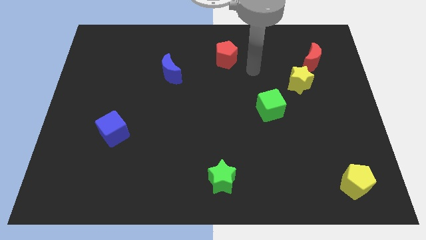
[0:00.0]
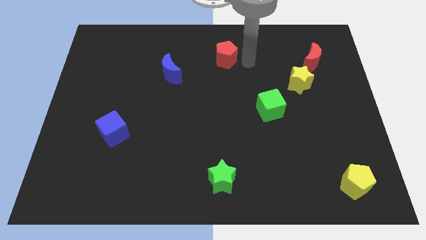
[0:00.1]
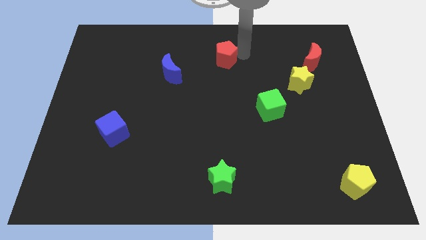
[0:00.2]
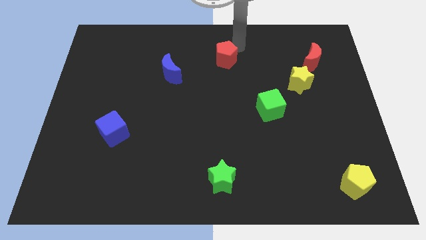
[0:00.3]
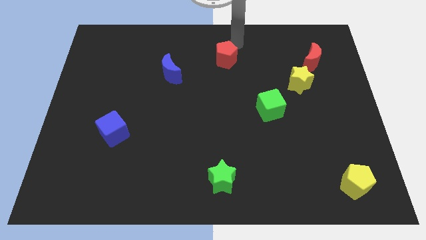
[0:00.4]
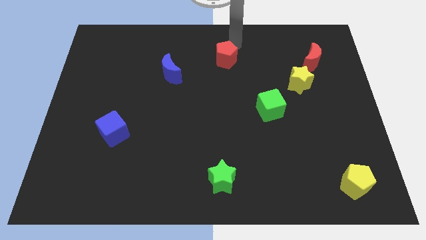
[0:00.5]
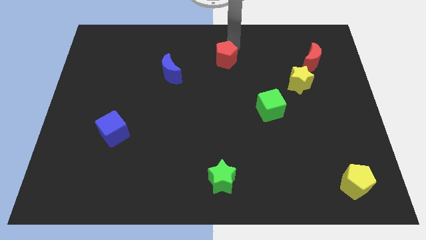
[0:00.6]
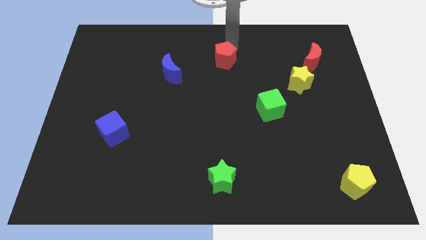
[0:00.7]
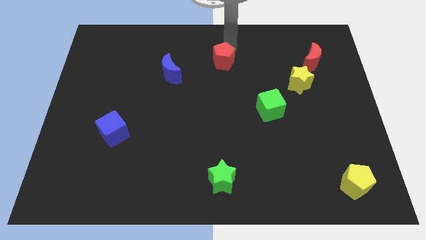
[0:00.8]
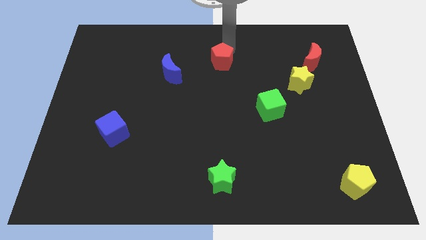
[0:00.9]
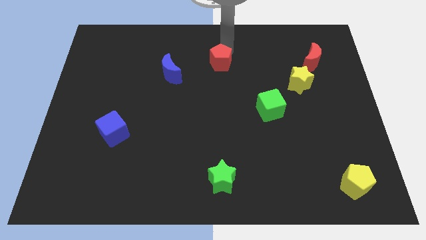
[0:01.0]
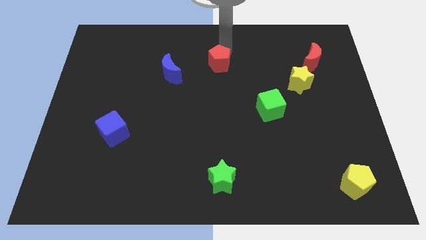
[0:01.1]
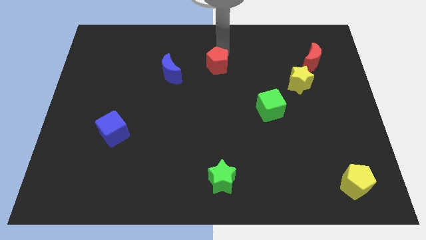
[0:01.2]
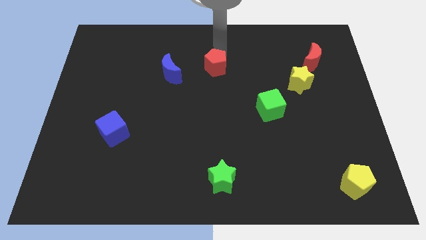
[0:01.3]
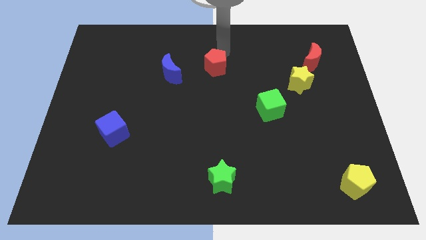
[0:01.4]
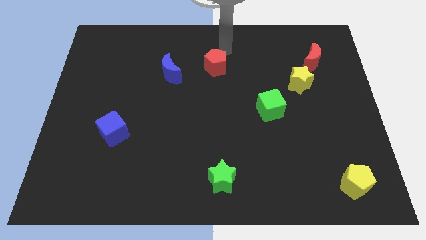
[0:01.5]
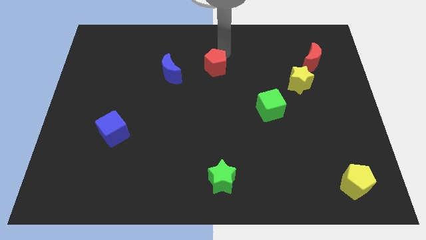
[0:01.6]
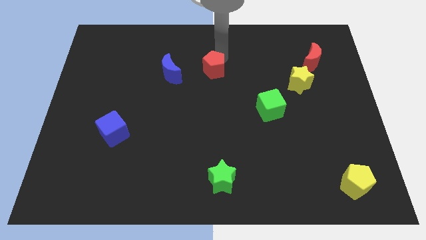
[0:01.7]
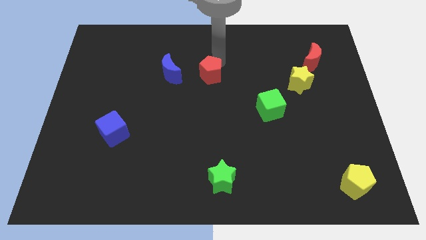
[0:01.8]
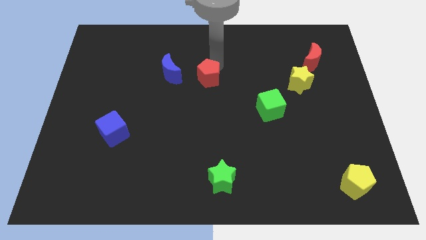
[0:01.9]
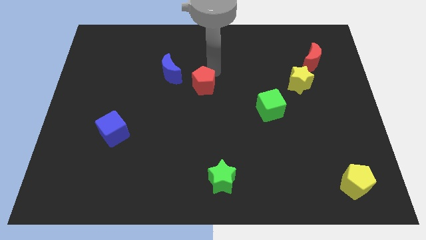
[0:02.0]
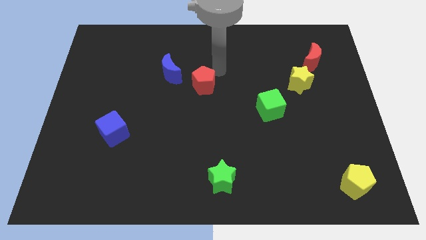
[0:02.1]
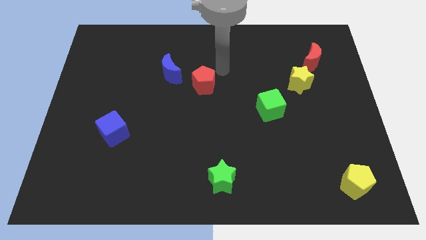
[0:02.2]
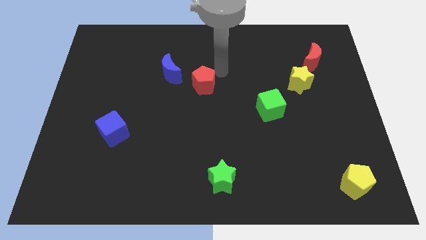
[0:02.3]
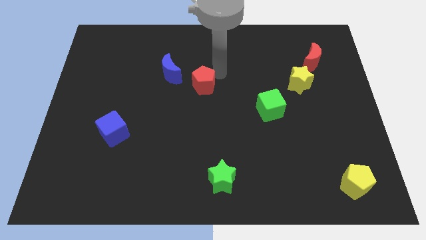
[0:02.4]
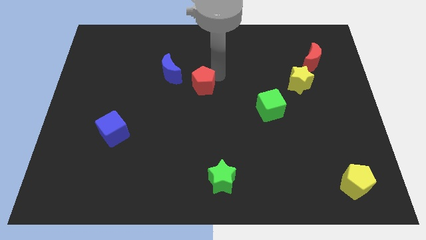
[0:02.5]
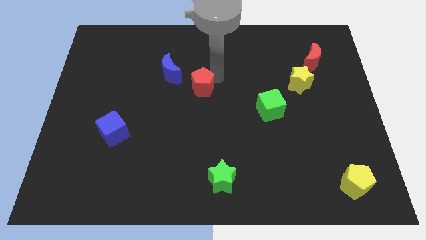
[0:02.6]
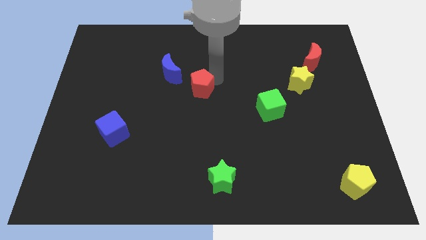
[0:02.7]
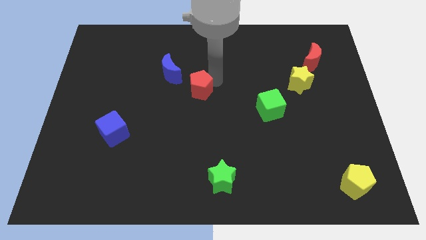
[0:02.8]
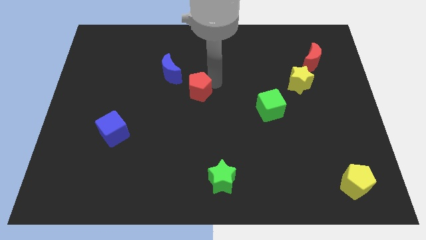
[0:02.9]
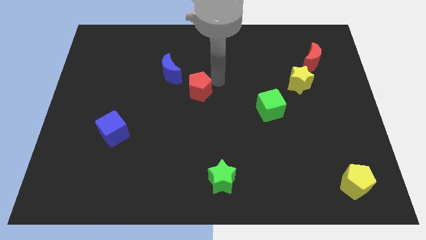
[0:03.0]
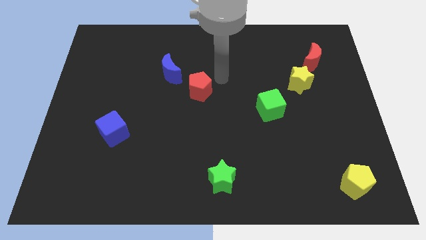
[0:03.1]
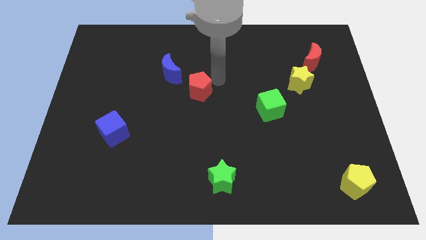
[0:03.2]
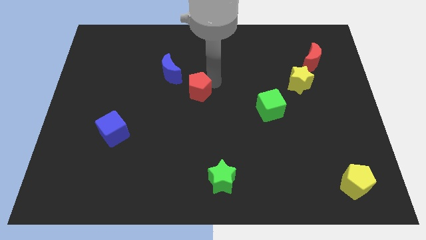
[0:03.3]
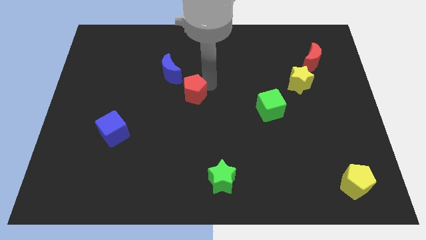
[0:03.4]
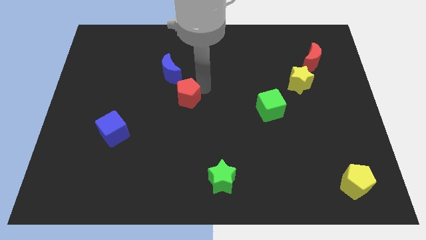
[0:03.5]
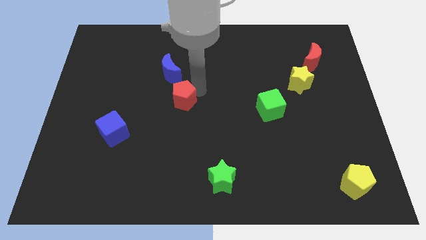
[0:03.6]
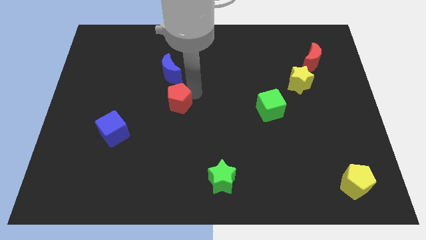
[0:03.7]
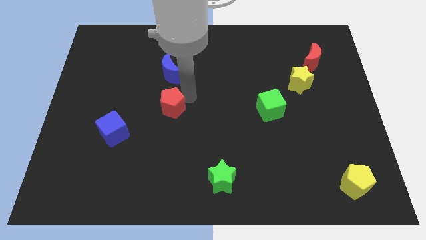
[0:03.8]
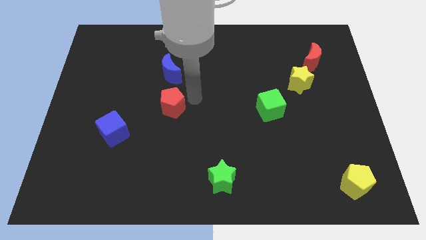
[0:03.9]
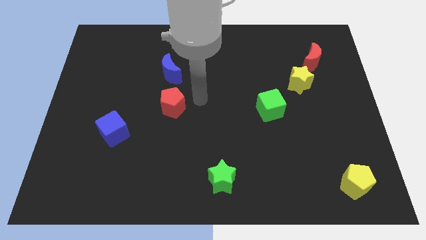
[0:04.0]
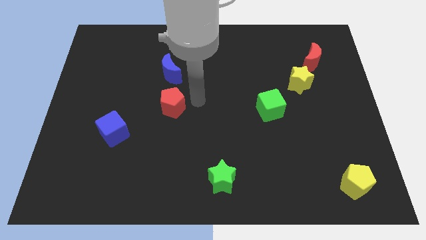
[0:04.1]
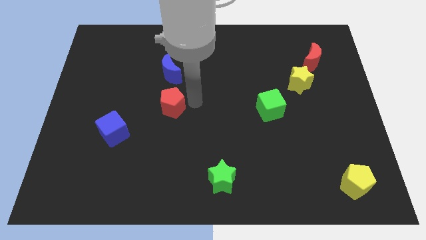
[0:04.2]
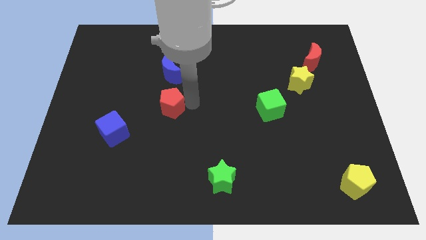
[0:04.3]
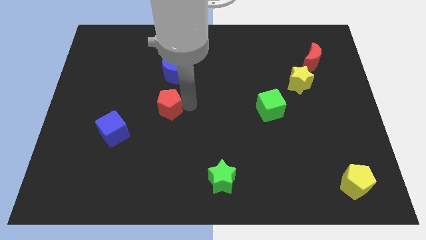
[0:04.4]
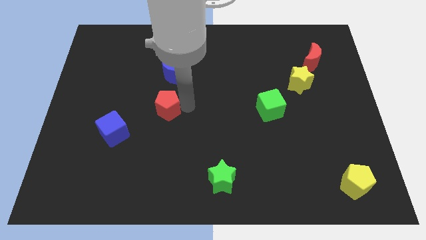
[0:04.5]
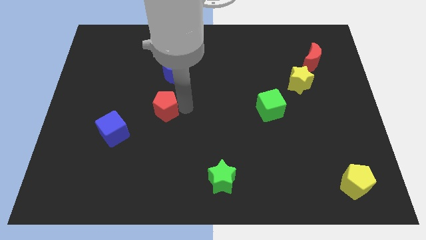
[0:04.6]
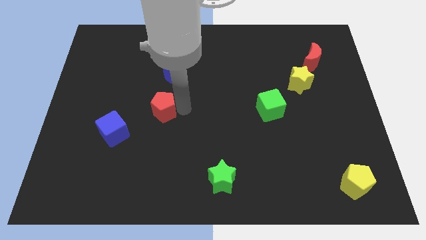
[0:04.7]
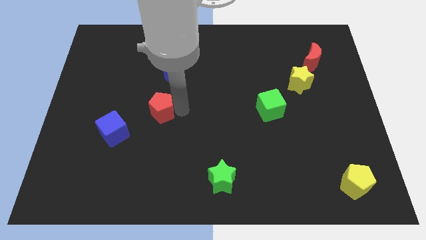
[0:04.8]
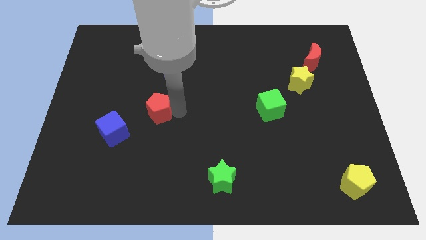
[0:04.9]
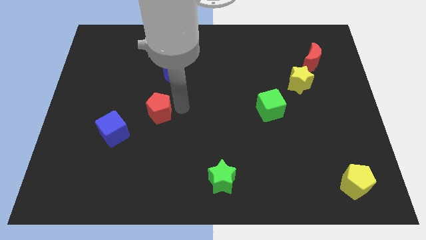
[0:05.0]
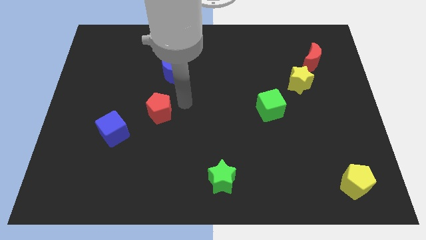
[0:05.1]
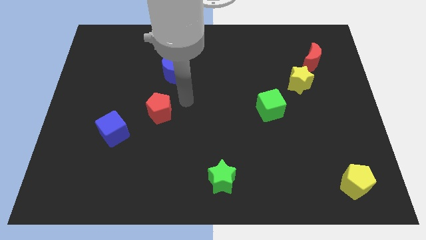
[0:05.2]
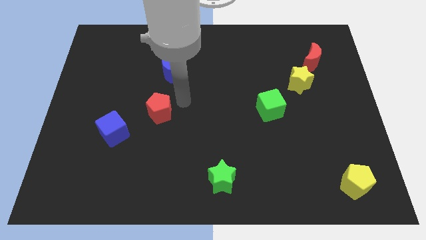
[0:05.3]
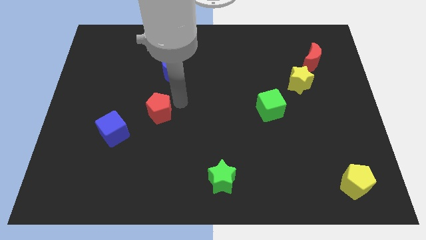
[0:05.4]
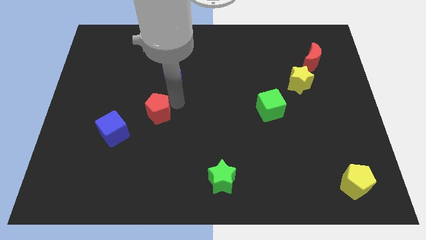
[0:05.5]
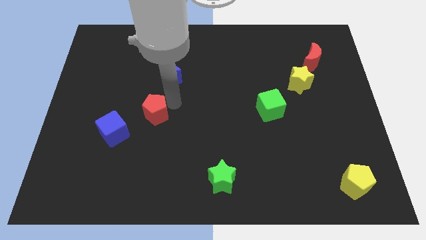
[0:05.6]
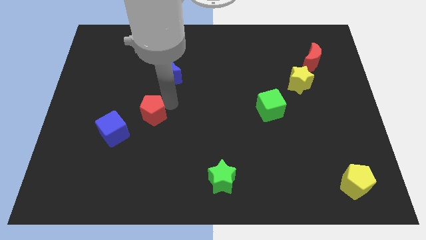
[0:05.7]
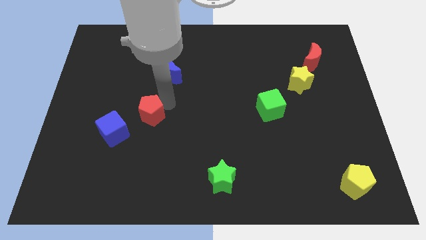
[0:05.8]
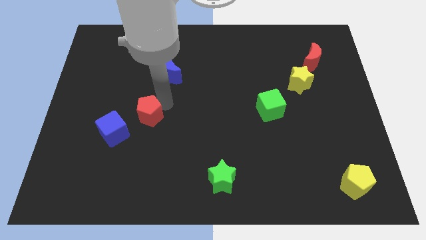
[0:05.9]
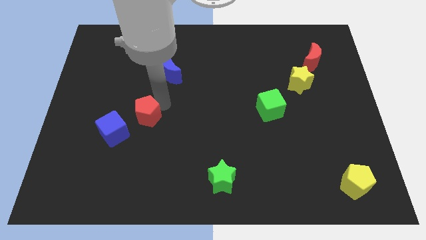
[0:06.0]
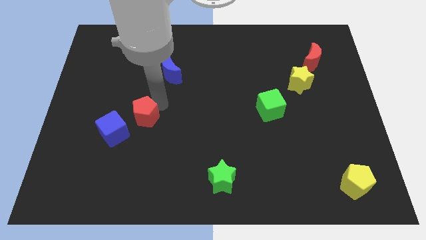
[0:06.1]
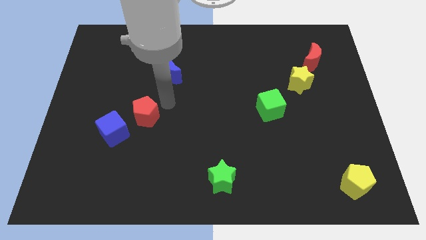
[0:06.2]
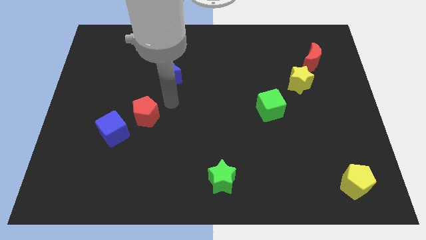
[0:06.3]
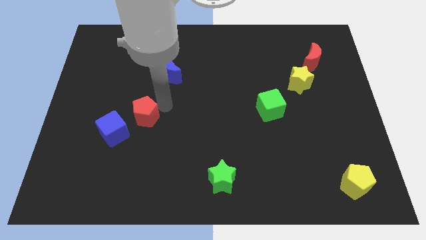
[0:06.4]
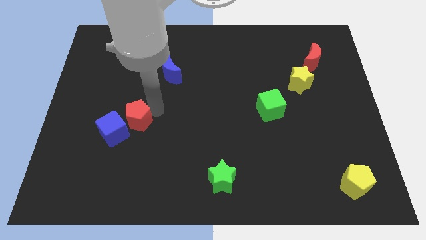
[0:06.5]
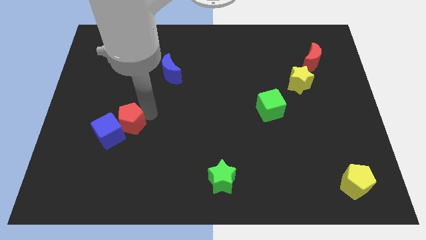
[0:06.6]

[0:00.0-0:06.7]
put the red pentagon to the blue cube
